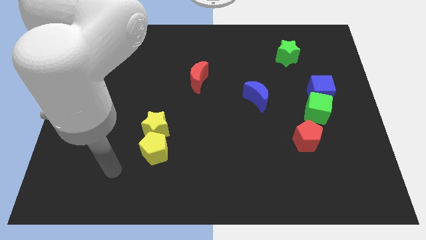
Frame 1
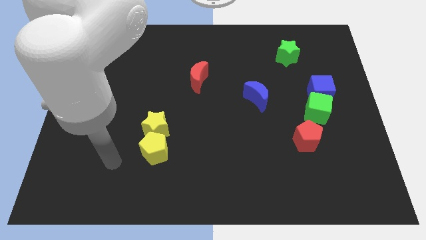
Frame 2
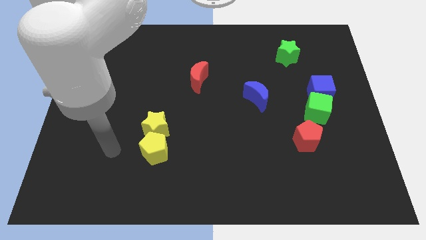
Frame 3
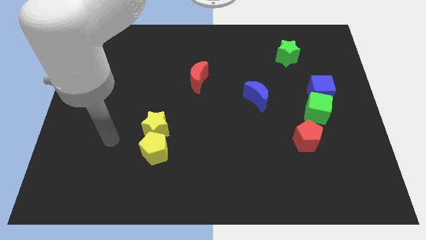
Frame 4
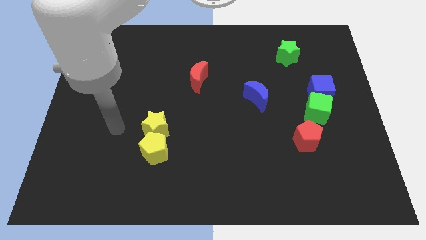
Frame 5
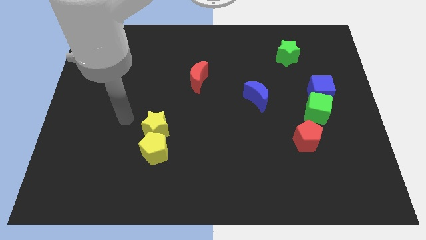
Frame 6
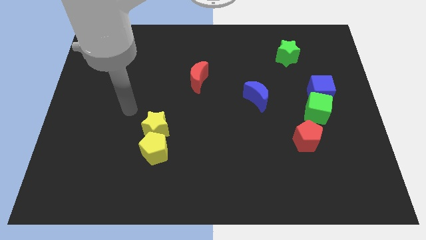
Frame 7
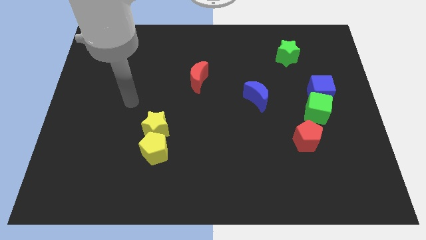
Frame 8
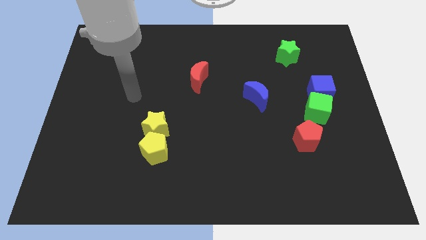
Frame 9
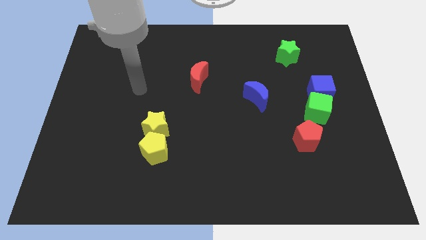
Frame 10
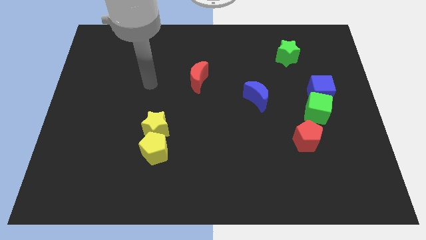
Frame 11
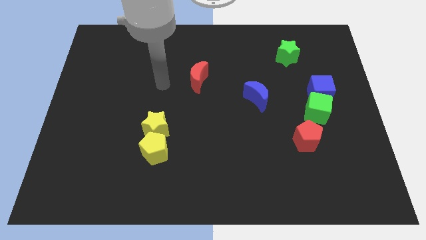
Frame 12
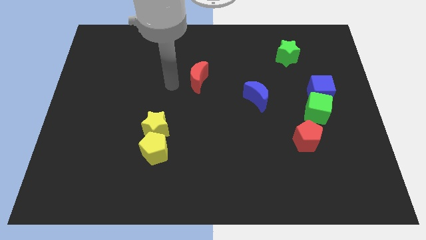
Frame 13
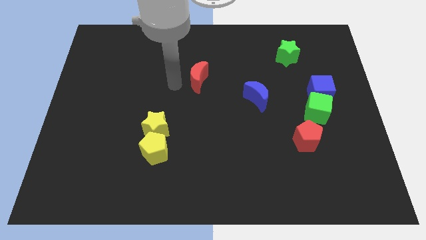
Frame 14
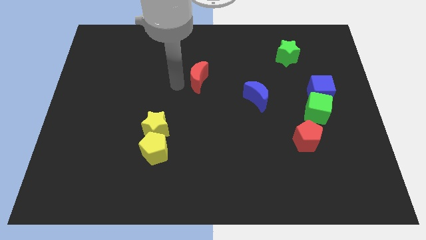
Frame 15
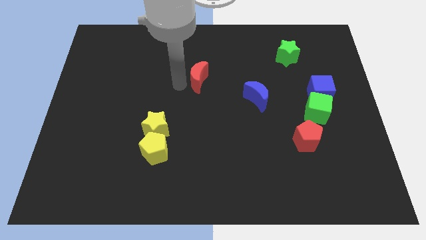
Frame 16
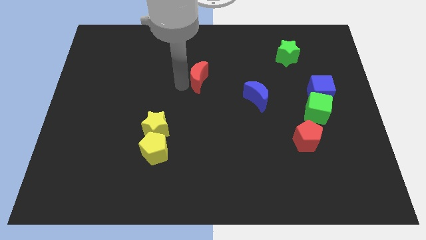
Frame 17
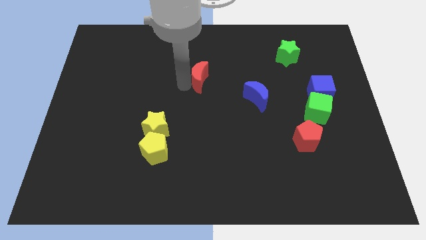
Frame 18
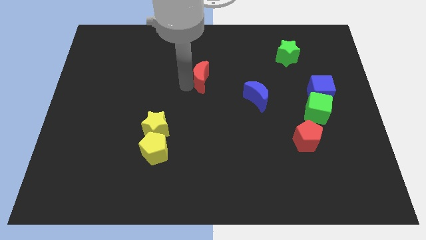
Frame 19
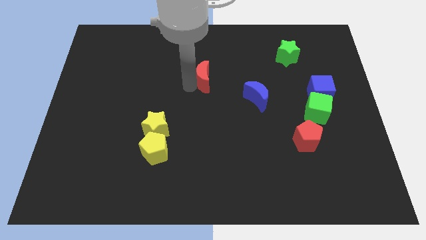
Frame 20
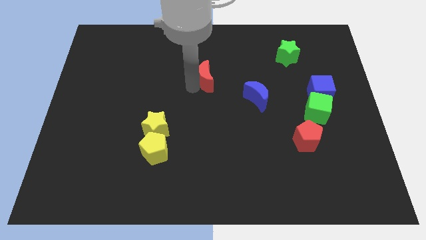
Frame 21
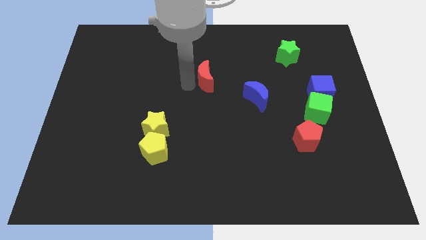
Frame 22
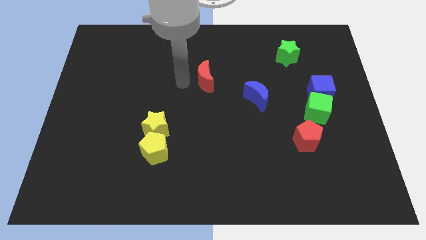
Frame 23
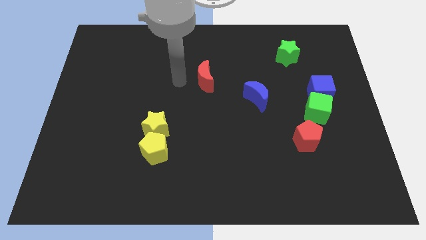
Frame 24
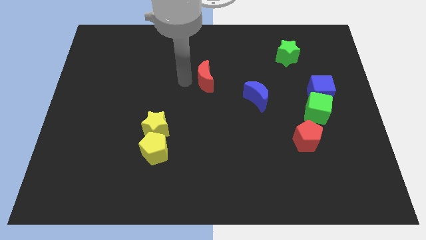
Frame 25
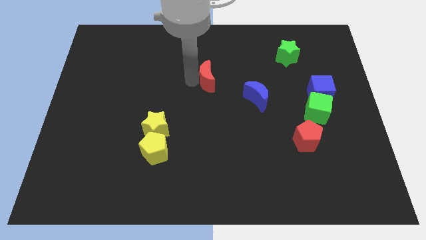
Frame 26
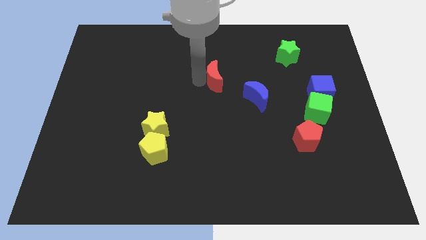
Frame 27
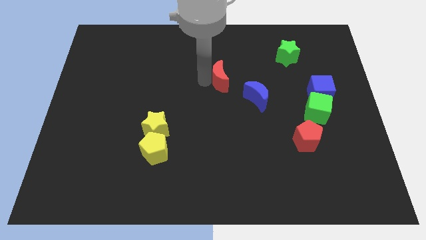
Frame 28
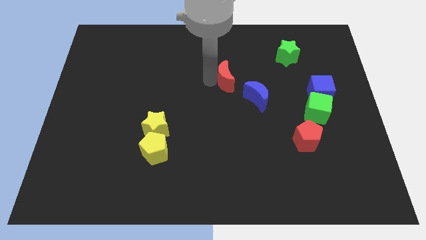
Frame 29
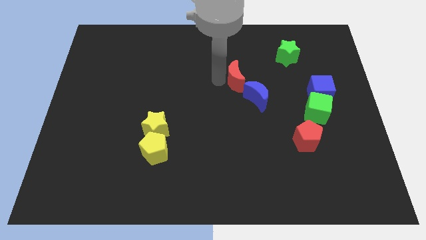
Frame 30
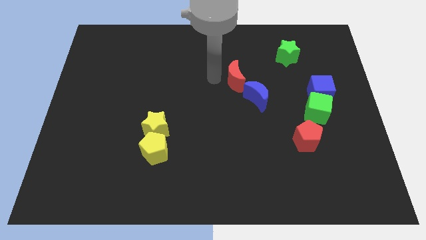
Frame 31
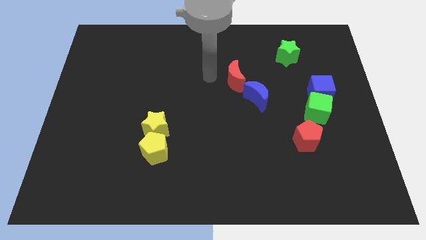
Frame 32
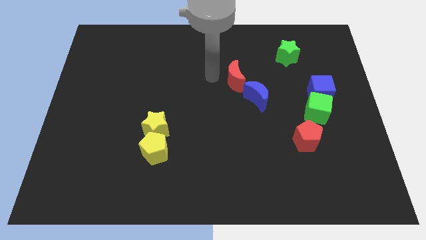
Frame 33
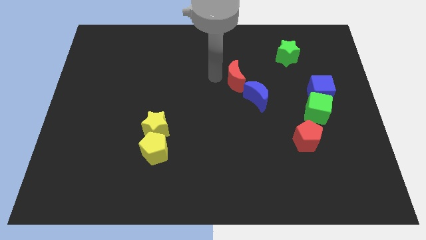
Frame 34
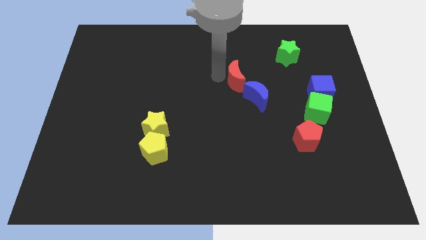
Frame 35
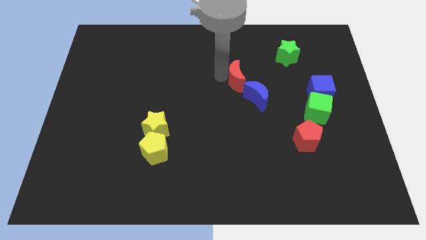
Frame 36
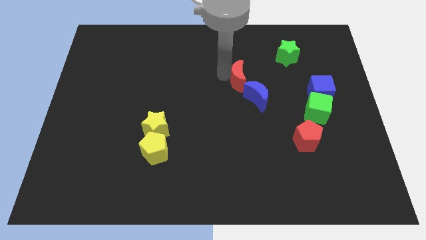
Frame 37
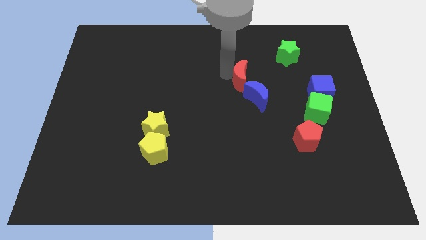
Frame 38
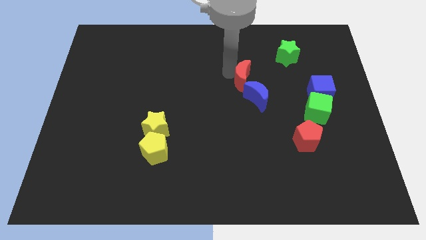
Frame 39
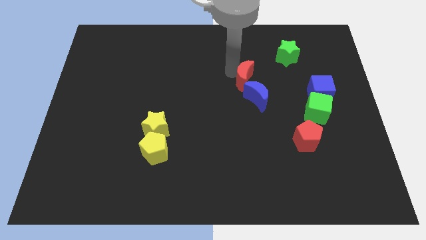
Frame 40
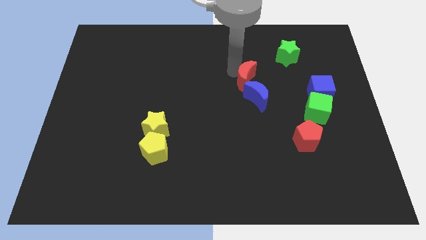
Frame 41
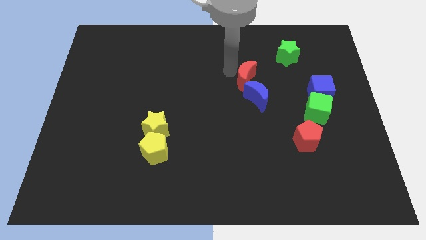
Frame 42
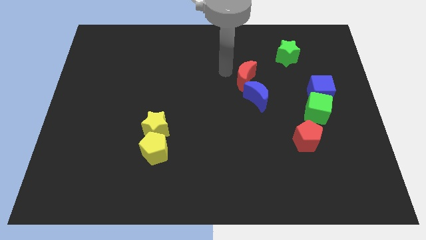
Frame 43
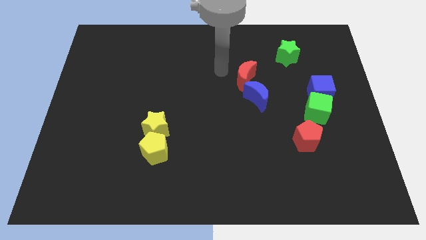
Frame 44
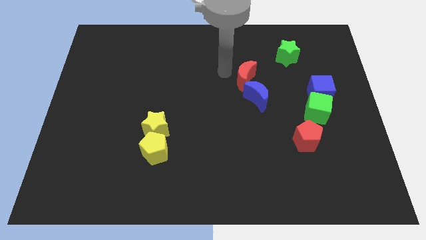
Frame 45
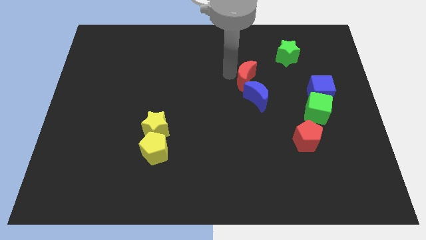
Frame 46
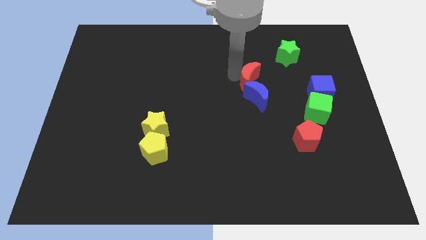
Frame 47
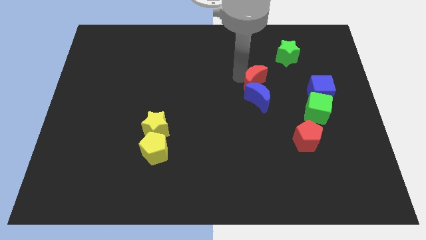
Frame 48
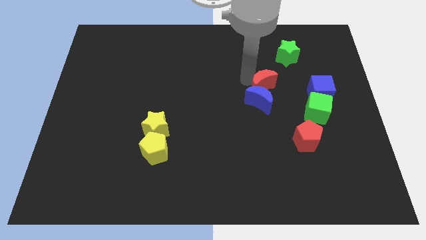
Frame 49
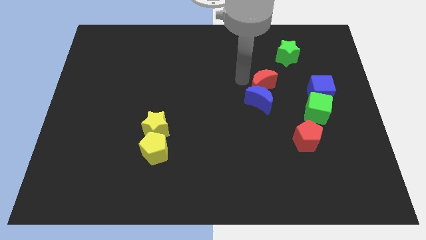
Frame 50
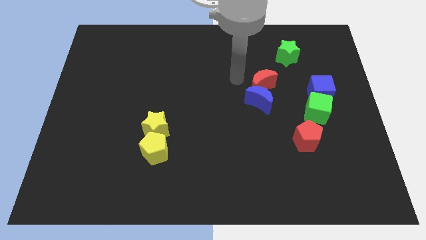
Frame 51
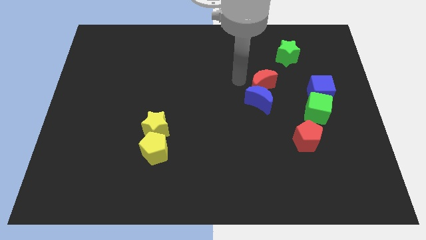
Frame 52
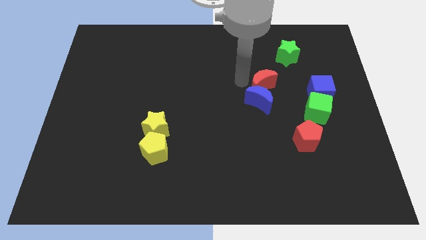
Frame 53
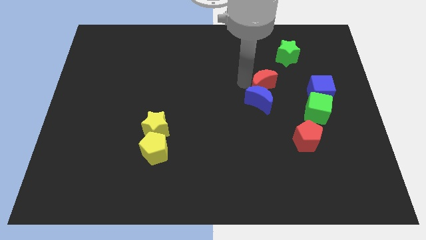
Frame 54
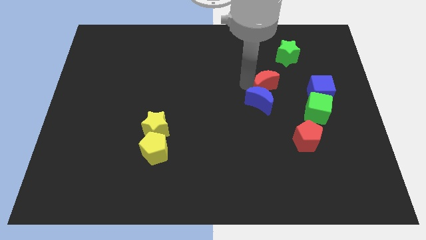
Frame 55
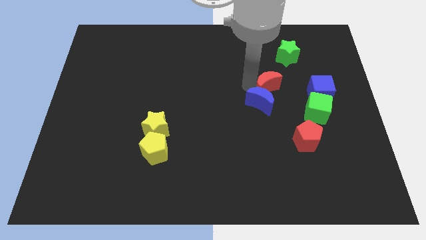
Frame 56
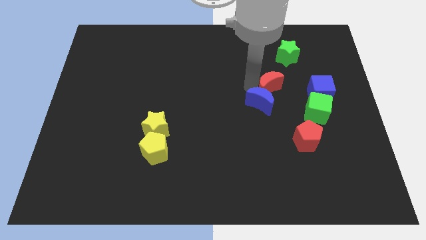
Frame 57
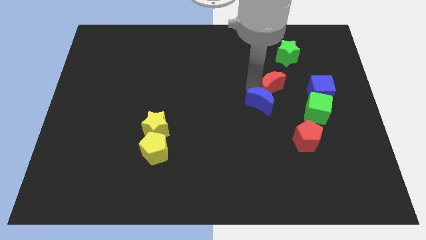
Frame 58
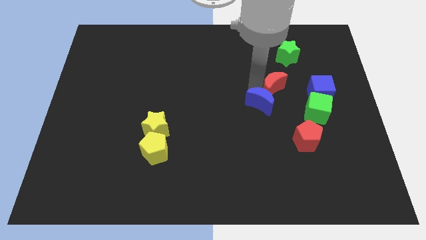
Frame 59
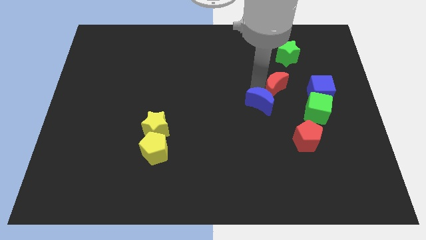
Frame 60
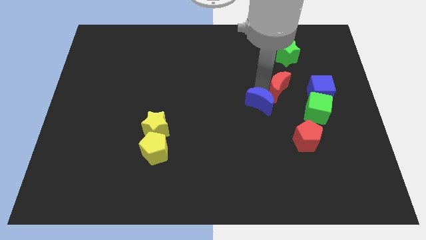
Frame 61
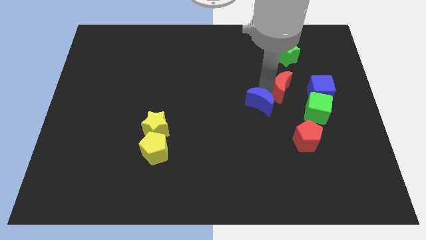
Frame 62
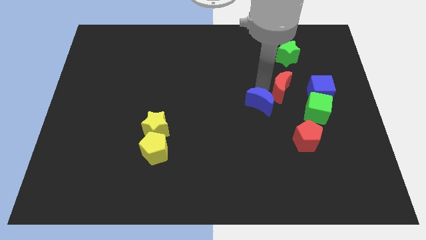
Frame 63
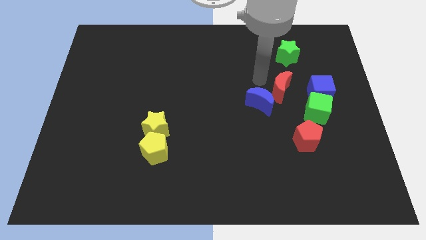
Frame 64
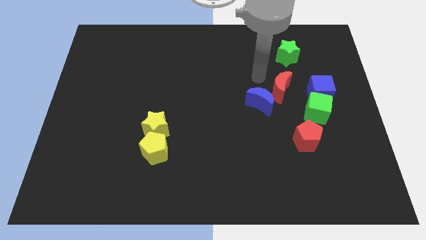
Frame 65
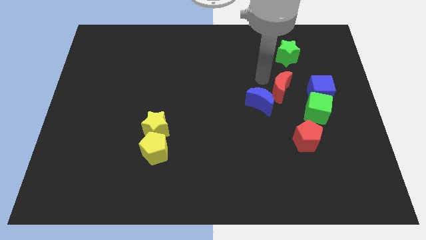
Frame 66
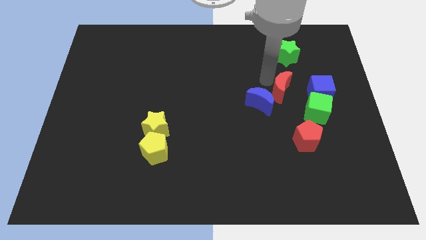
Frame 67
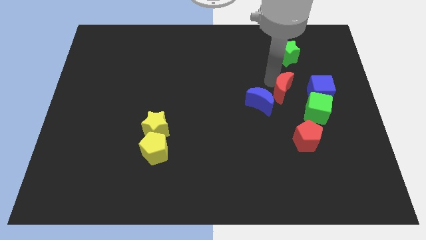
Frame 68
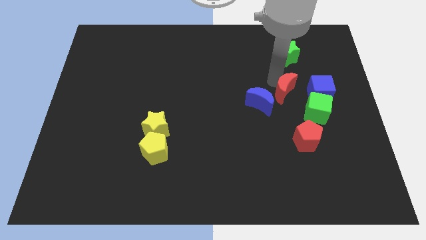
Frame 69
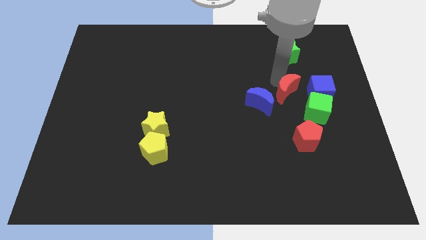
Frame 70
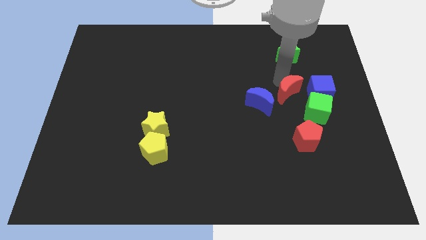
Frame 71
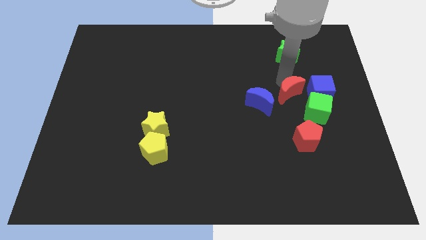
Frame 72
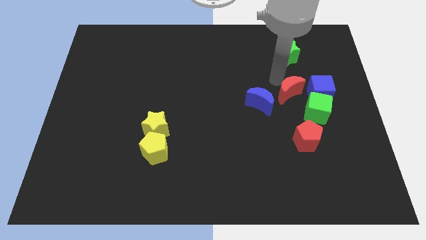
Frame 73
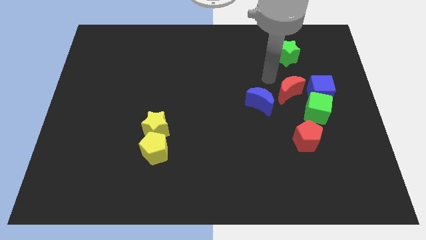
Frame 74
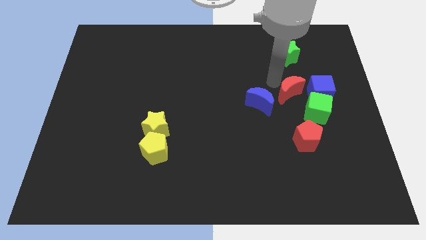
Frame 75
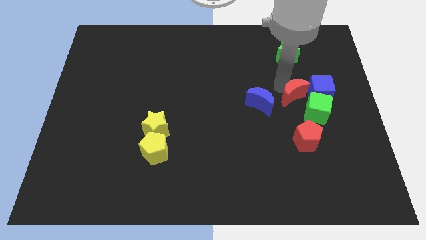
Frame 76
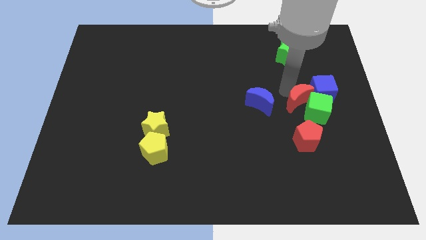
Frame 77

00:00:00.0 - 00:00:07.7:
put the red moon close to the green cube

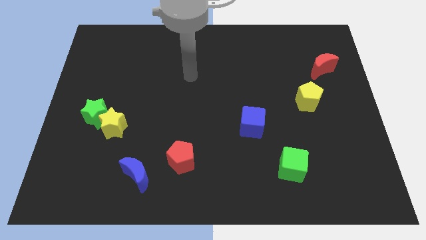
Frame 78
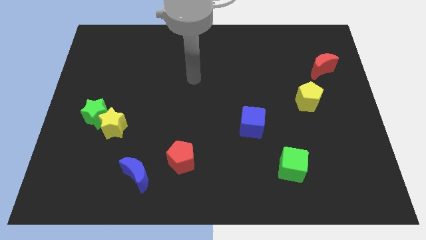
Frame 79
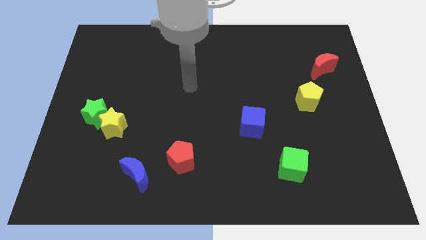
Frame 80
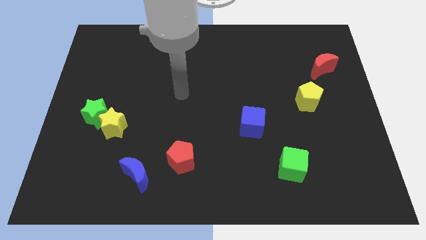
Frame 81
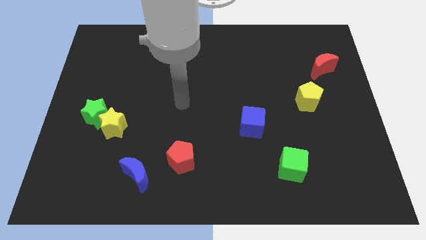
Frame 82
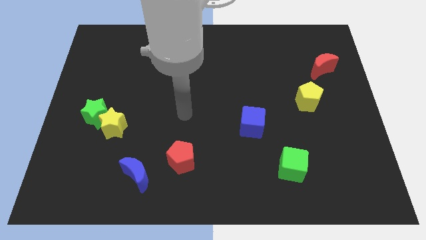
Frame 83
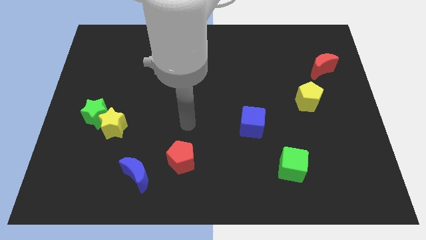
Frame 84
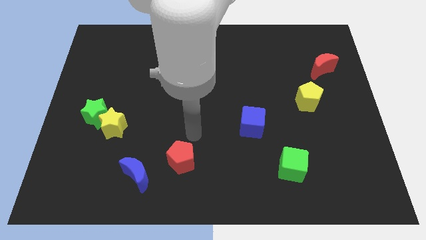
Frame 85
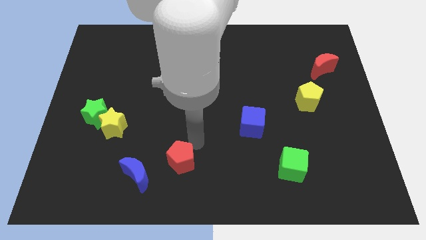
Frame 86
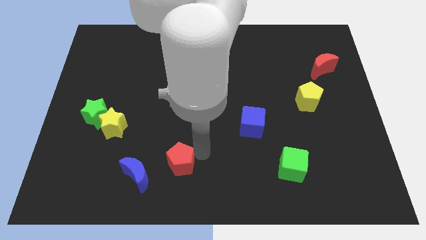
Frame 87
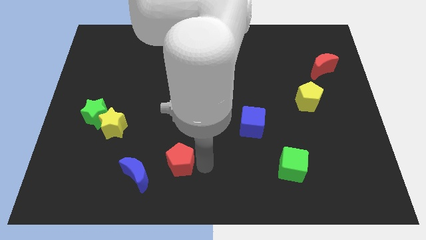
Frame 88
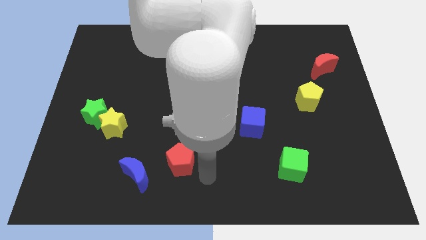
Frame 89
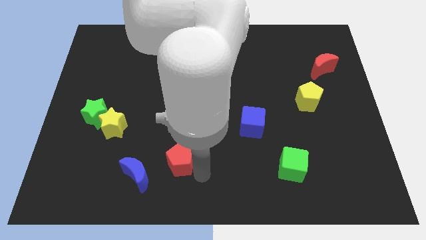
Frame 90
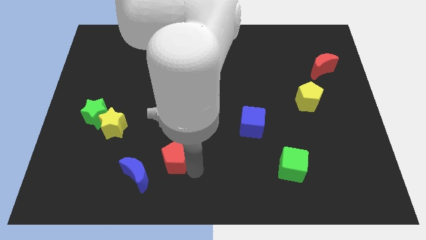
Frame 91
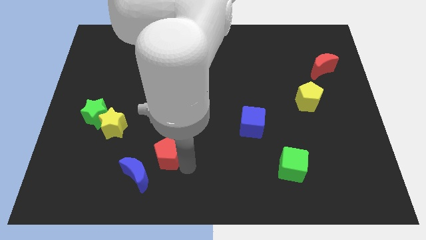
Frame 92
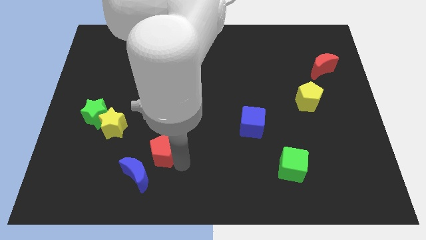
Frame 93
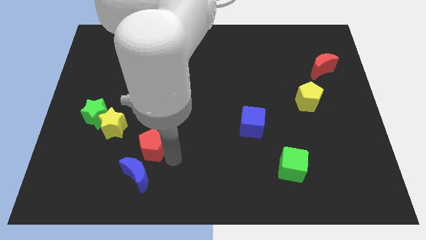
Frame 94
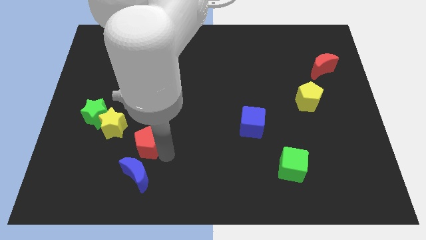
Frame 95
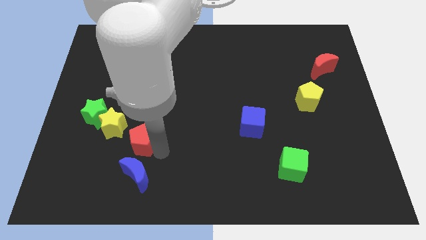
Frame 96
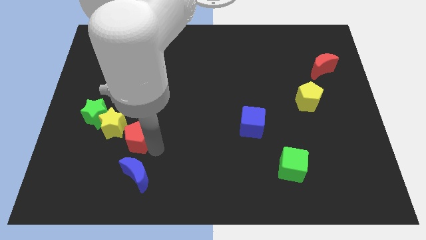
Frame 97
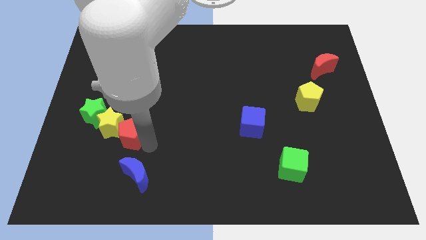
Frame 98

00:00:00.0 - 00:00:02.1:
slide the red pentagon towards the yellow star
